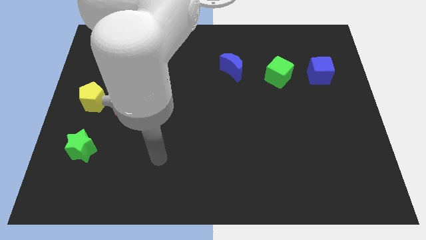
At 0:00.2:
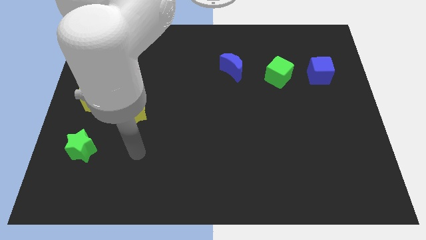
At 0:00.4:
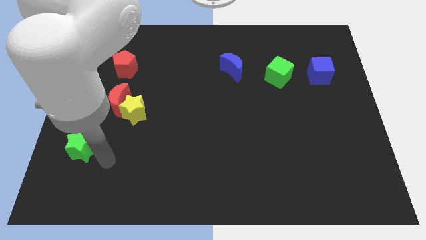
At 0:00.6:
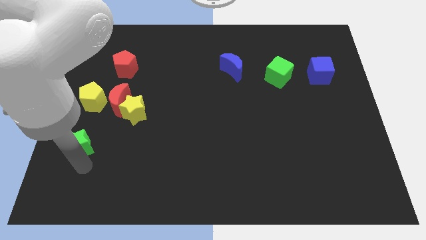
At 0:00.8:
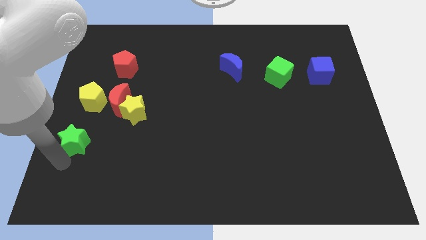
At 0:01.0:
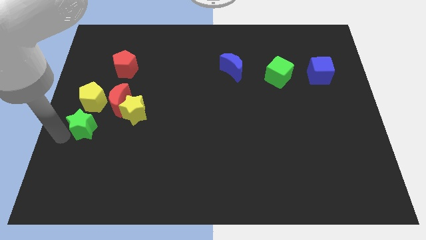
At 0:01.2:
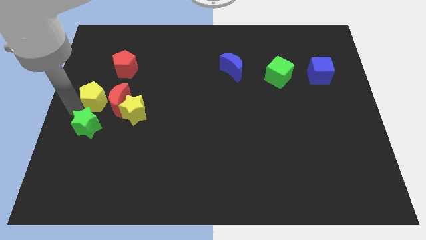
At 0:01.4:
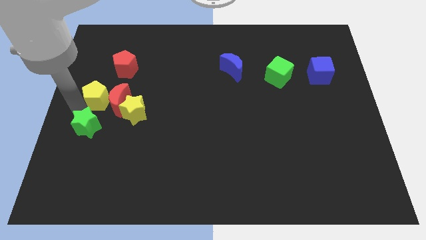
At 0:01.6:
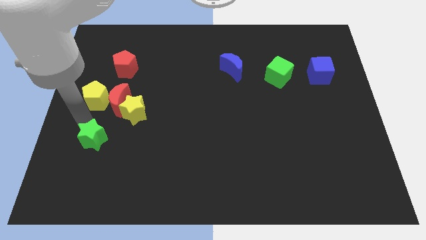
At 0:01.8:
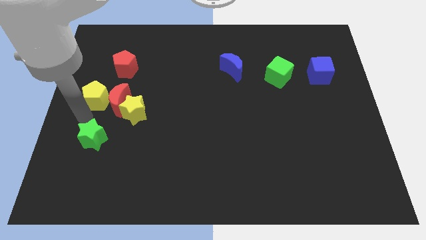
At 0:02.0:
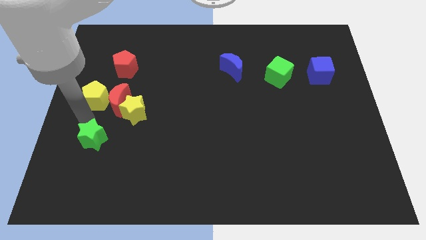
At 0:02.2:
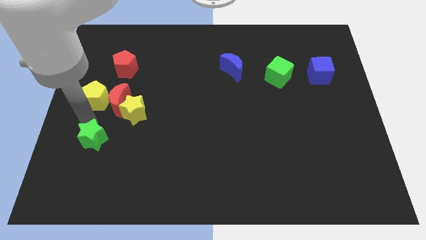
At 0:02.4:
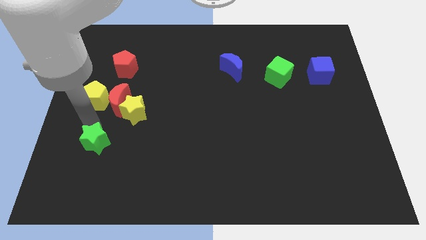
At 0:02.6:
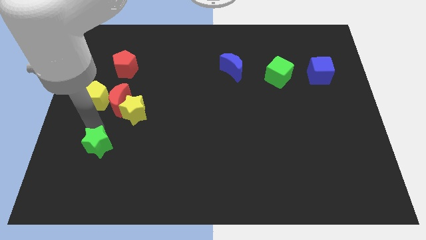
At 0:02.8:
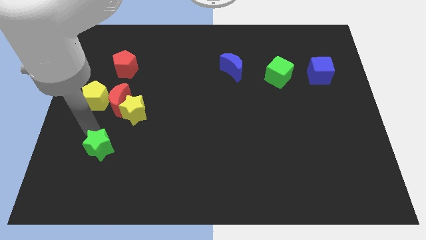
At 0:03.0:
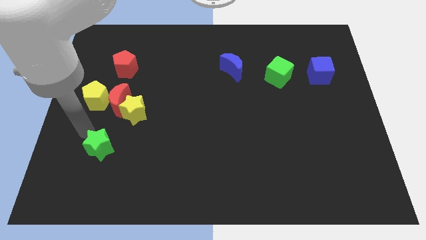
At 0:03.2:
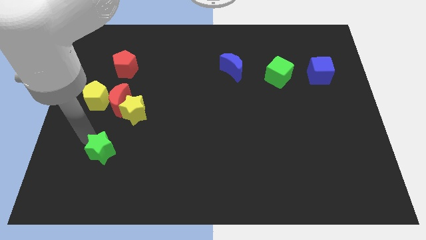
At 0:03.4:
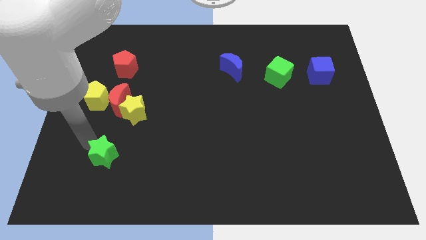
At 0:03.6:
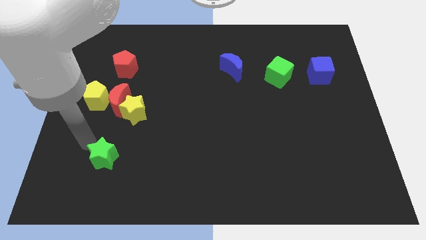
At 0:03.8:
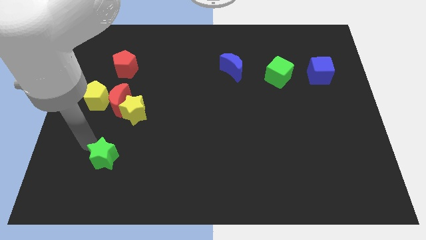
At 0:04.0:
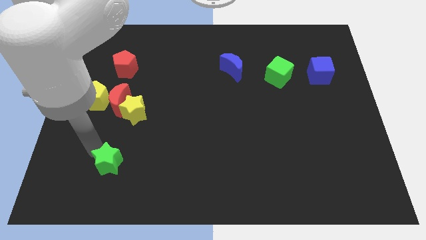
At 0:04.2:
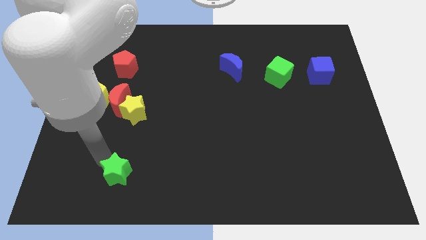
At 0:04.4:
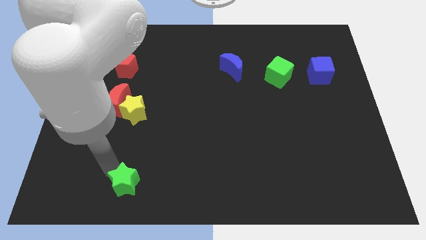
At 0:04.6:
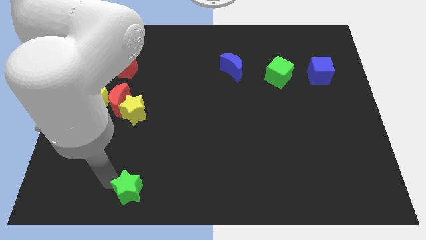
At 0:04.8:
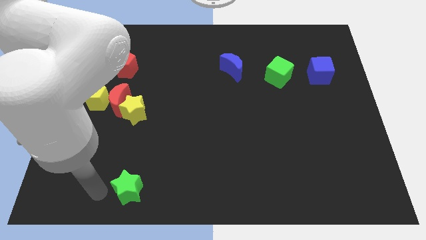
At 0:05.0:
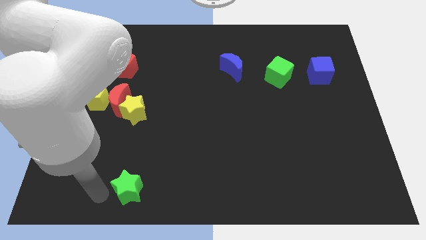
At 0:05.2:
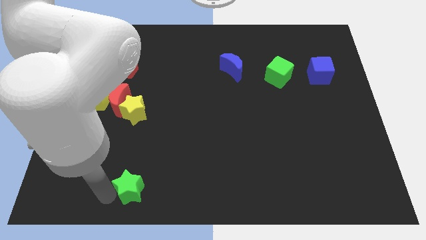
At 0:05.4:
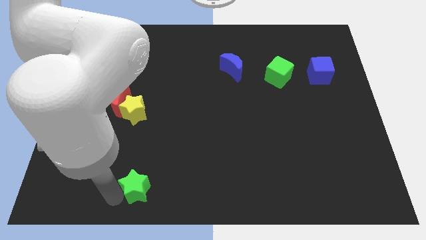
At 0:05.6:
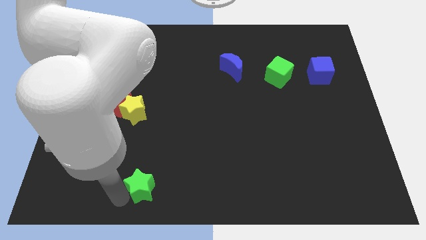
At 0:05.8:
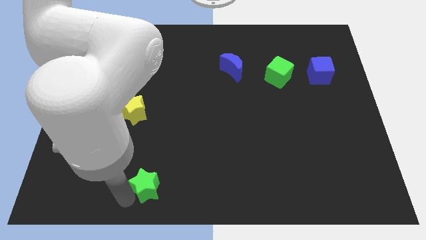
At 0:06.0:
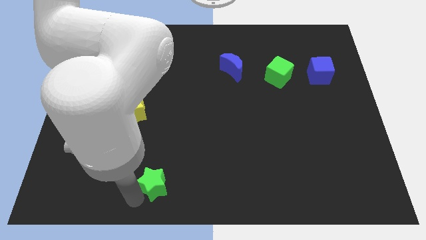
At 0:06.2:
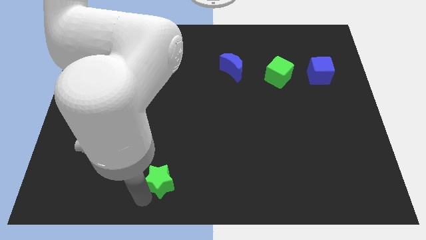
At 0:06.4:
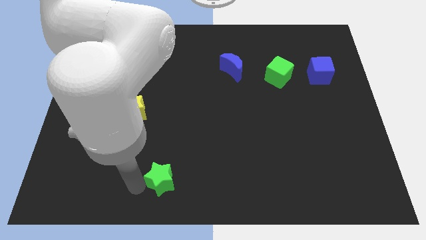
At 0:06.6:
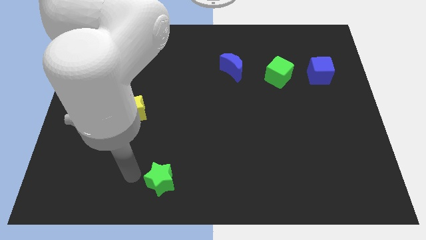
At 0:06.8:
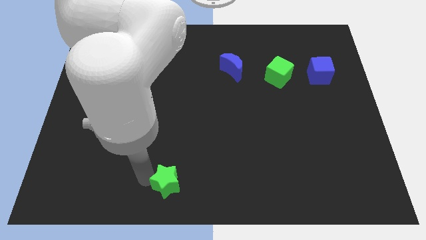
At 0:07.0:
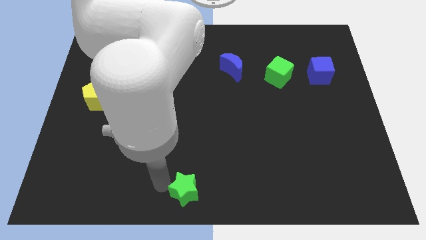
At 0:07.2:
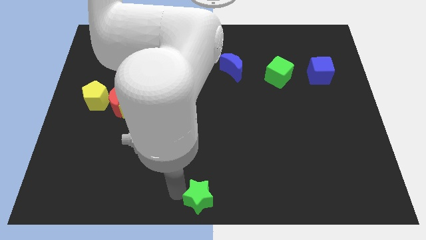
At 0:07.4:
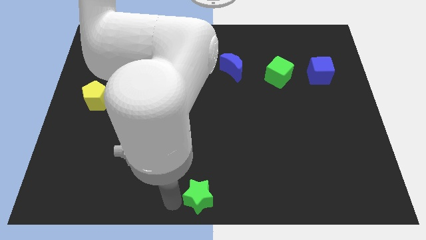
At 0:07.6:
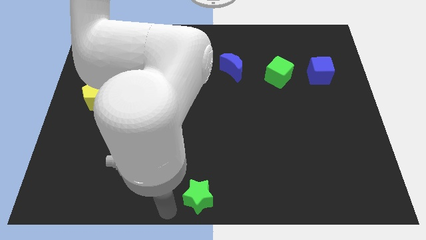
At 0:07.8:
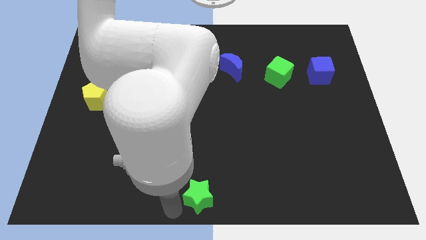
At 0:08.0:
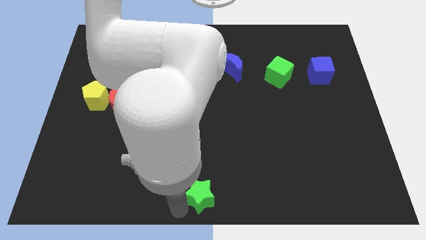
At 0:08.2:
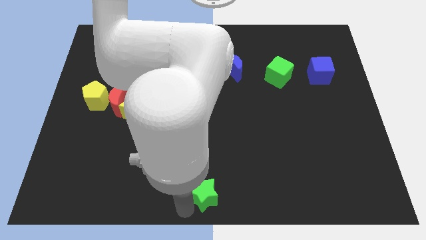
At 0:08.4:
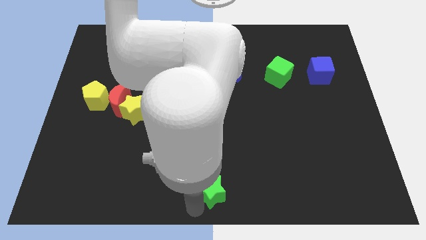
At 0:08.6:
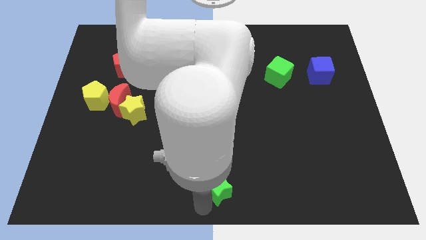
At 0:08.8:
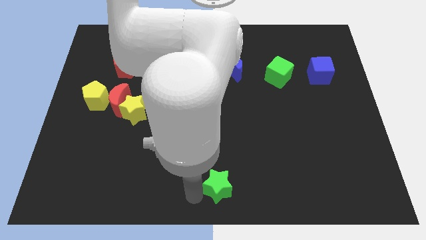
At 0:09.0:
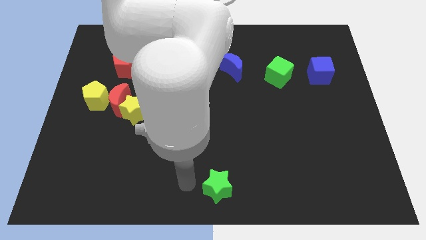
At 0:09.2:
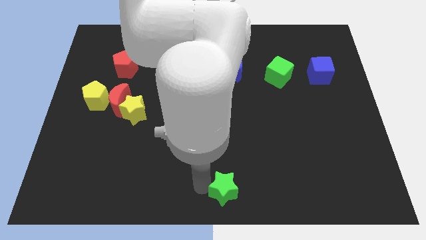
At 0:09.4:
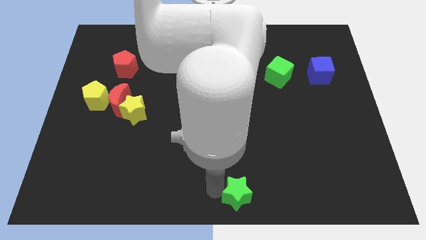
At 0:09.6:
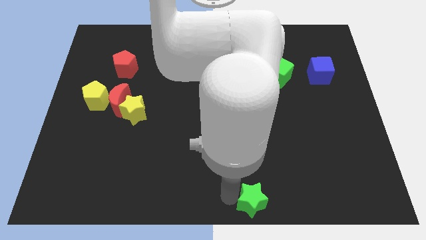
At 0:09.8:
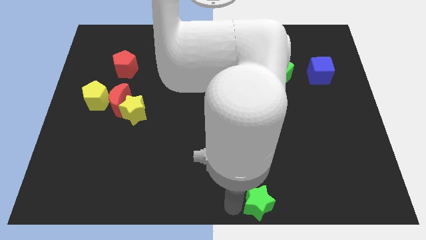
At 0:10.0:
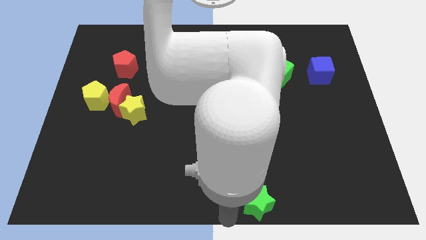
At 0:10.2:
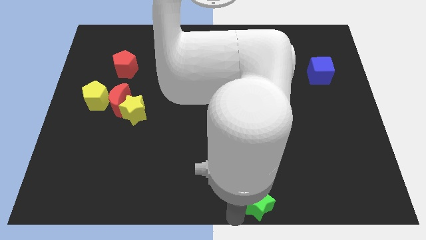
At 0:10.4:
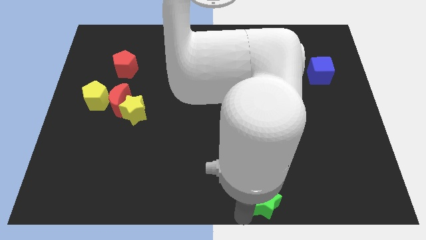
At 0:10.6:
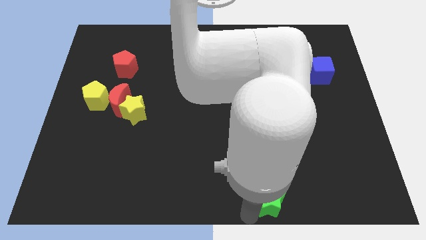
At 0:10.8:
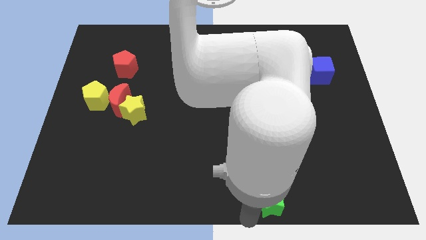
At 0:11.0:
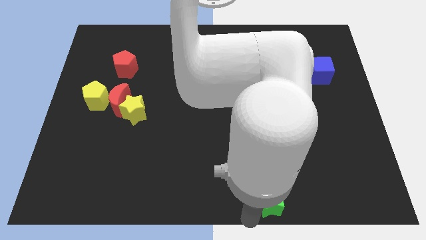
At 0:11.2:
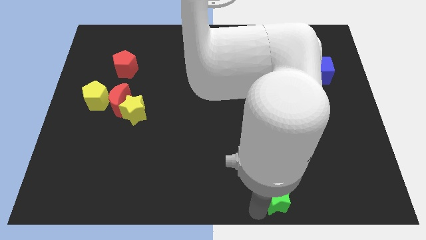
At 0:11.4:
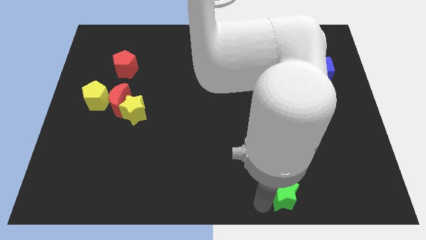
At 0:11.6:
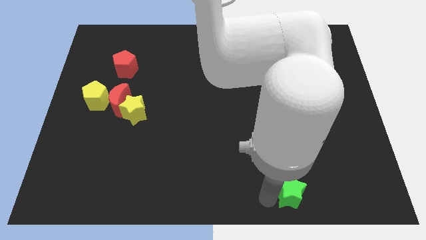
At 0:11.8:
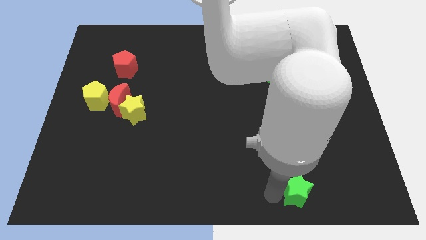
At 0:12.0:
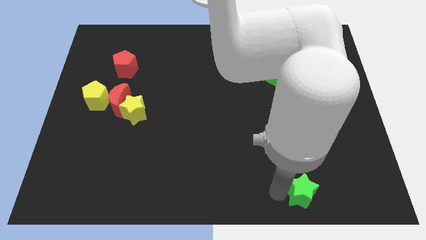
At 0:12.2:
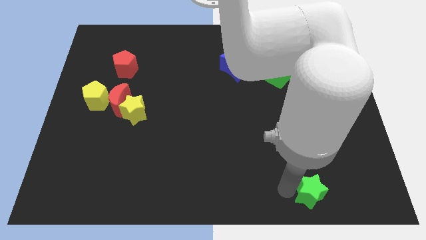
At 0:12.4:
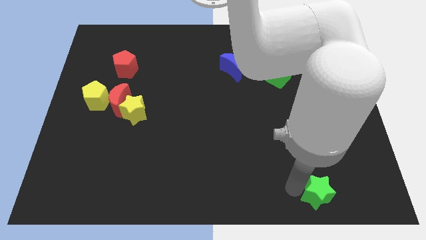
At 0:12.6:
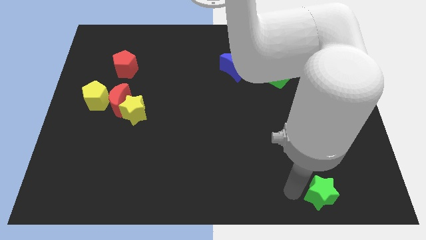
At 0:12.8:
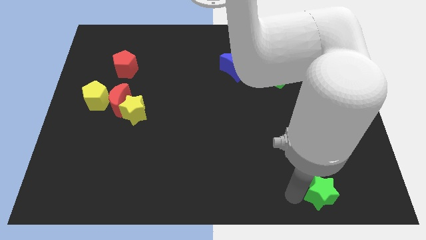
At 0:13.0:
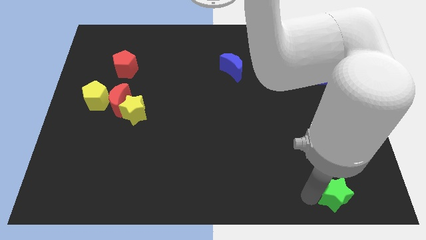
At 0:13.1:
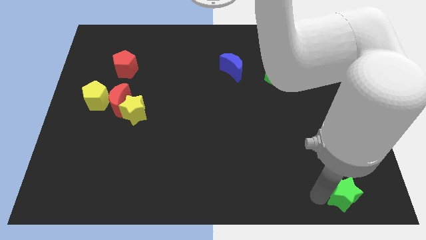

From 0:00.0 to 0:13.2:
put the green star to the bottom right

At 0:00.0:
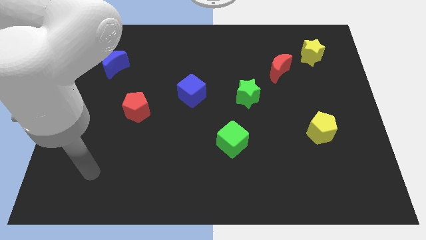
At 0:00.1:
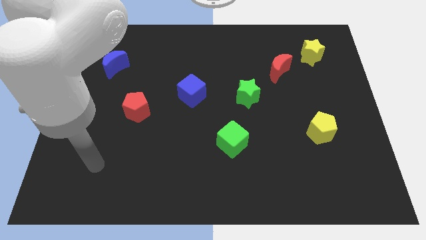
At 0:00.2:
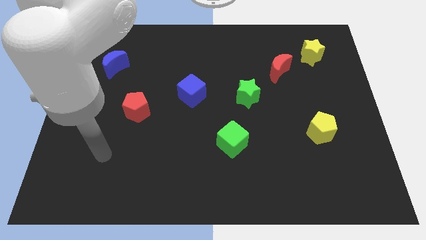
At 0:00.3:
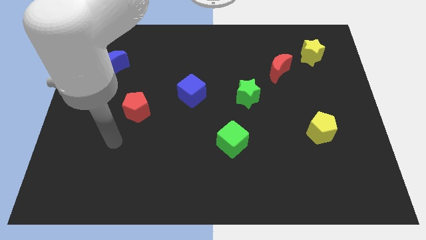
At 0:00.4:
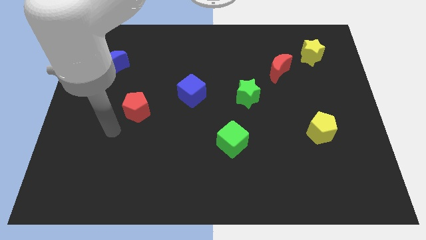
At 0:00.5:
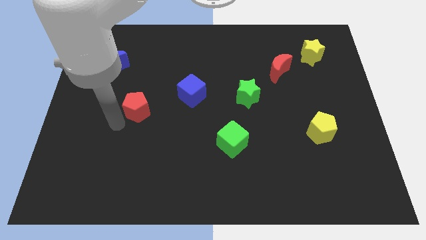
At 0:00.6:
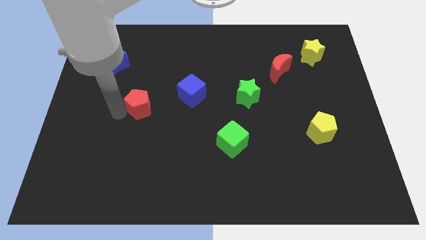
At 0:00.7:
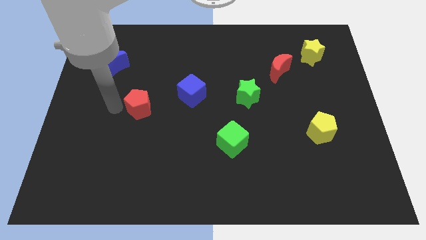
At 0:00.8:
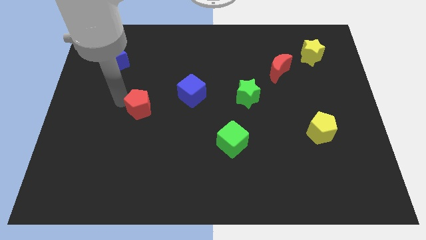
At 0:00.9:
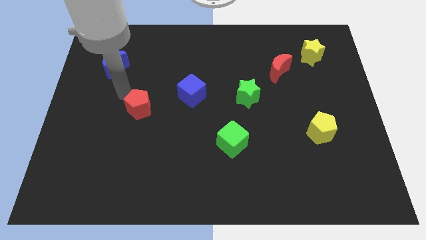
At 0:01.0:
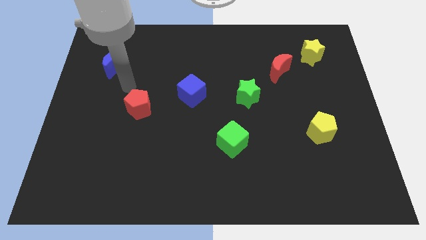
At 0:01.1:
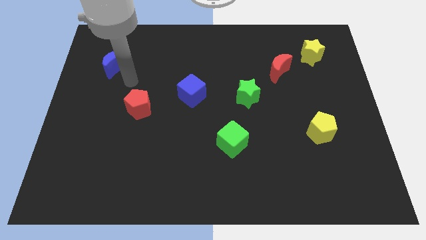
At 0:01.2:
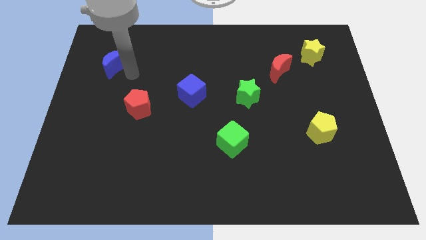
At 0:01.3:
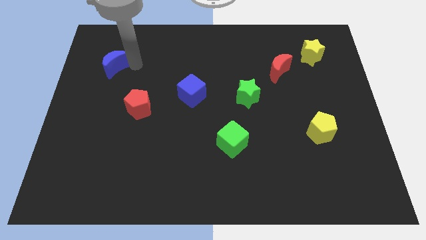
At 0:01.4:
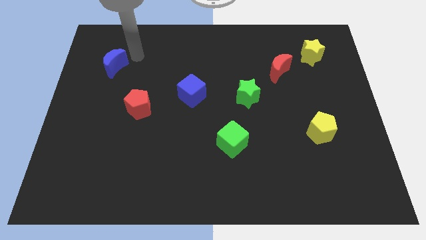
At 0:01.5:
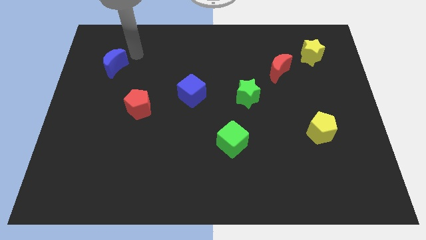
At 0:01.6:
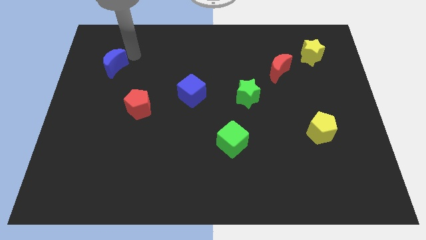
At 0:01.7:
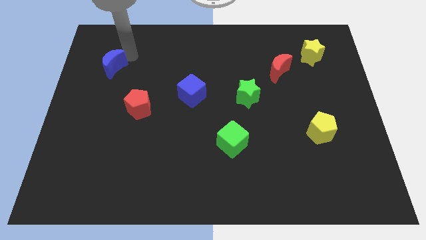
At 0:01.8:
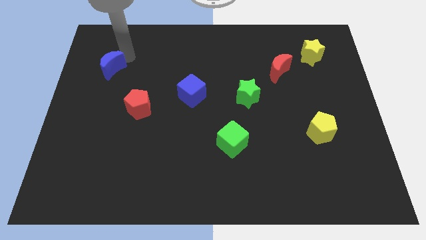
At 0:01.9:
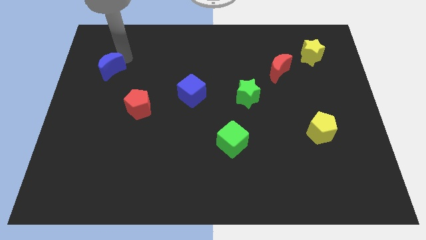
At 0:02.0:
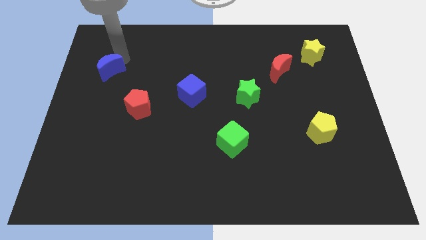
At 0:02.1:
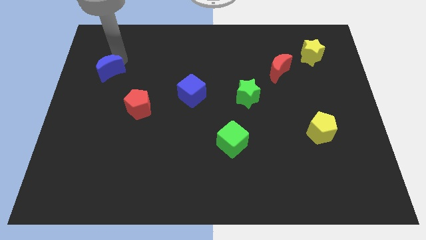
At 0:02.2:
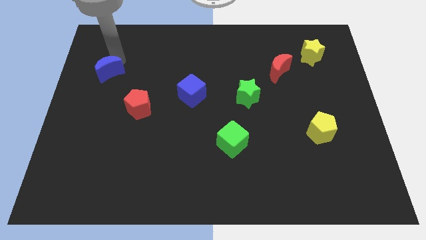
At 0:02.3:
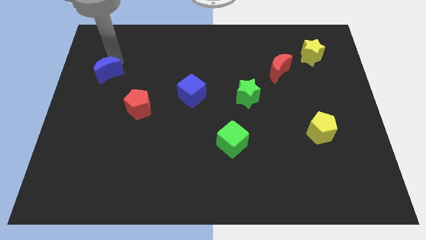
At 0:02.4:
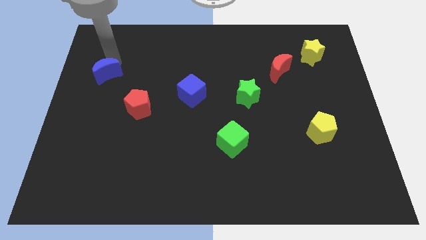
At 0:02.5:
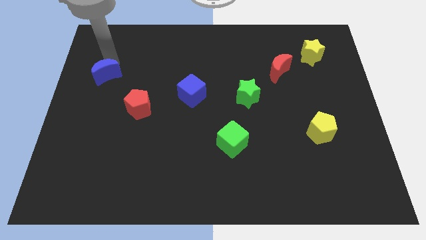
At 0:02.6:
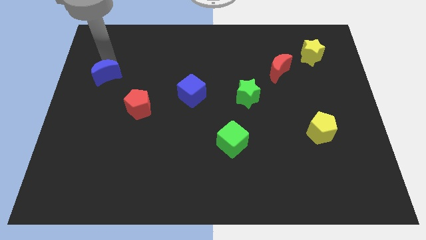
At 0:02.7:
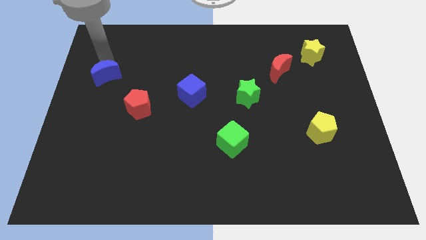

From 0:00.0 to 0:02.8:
move the blue moon to the left side
